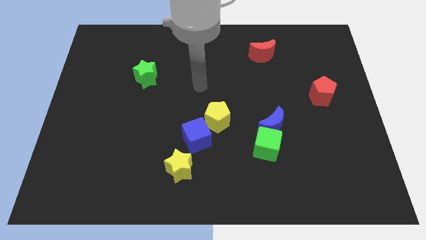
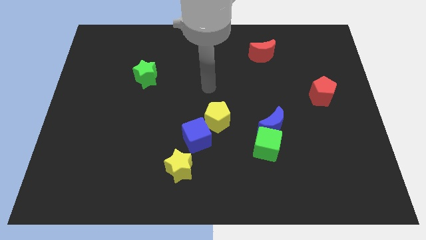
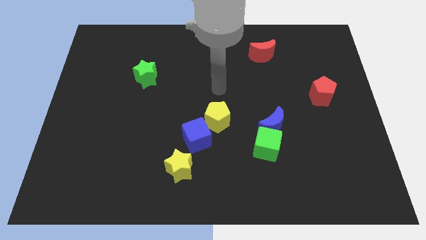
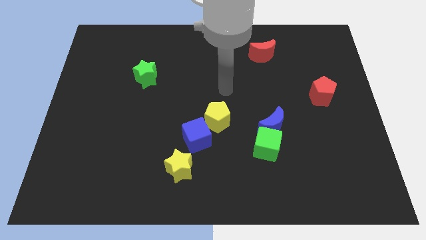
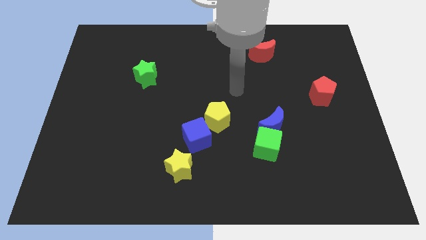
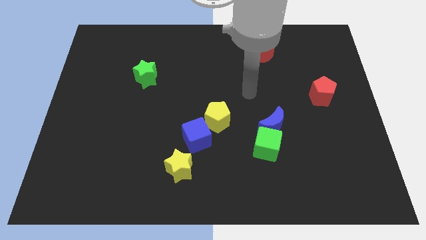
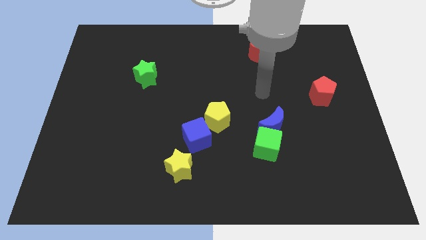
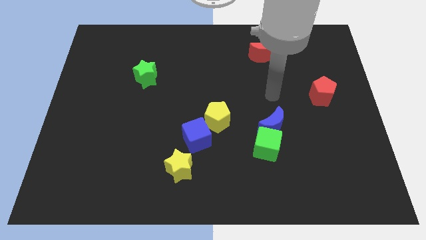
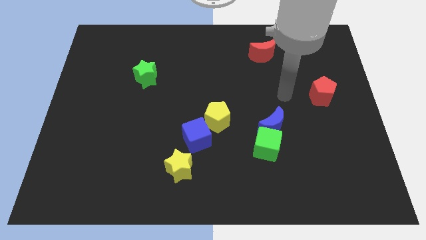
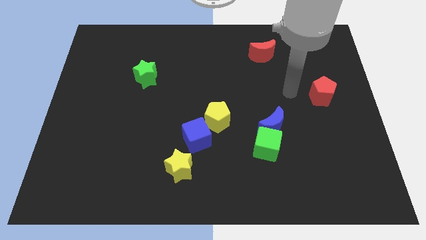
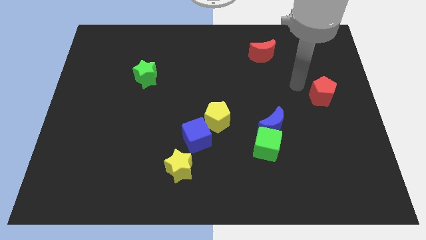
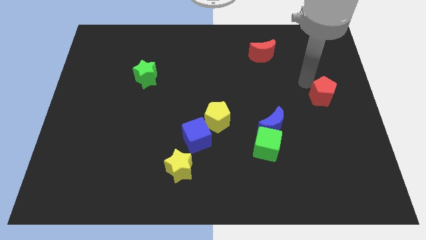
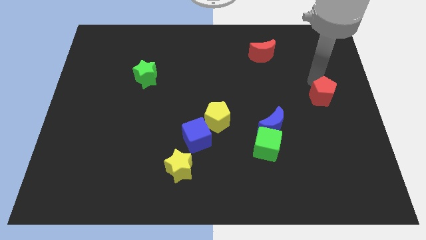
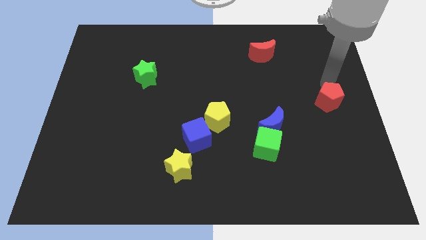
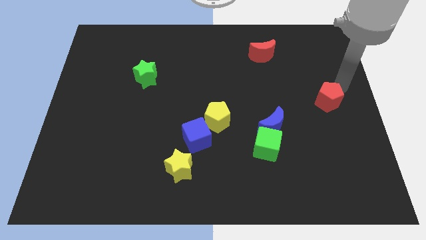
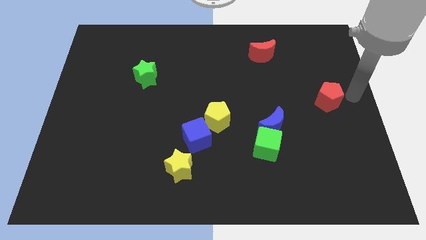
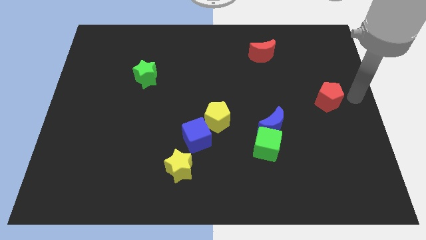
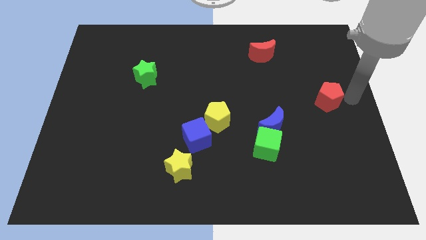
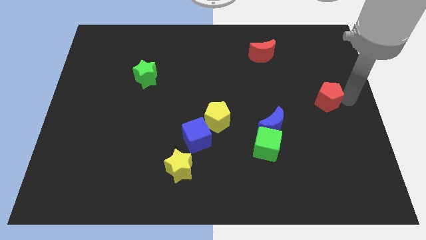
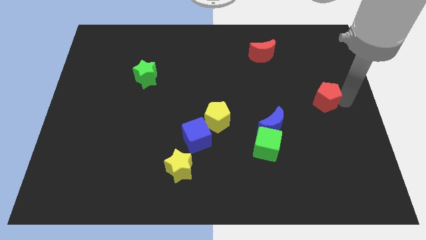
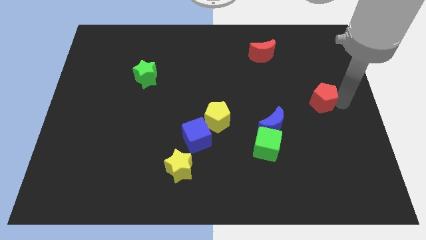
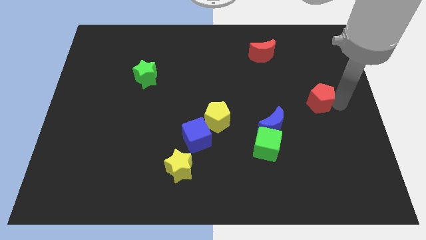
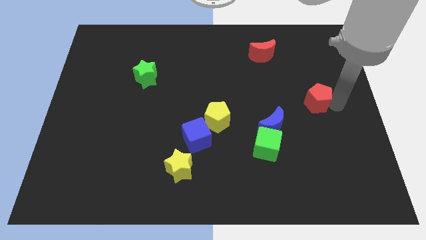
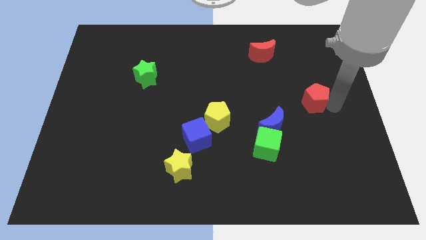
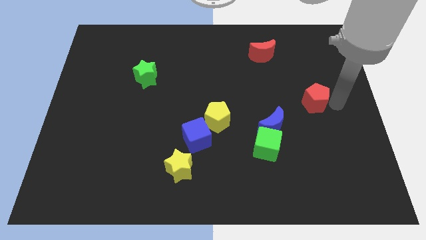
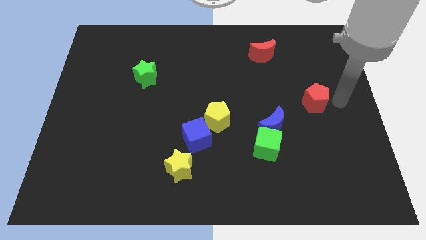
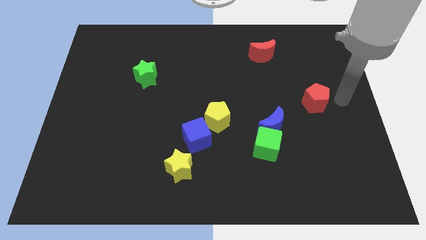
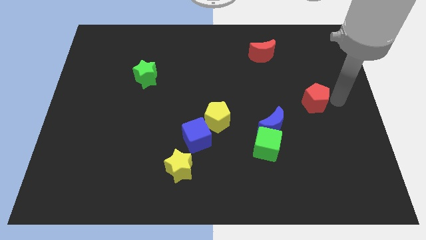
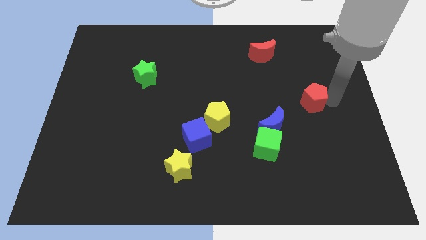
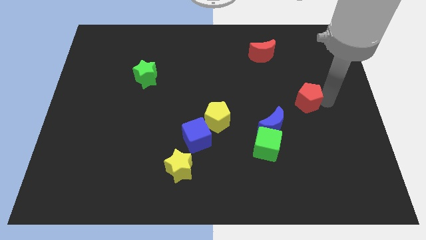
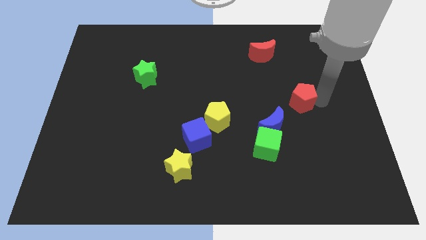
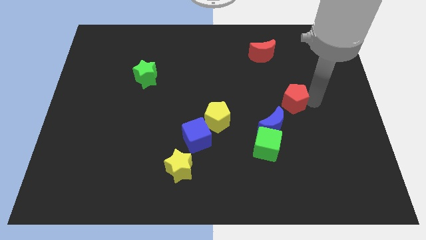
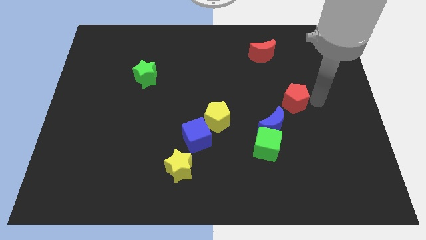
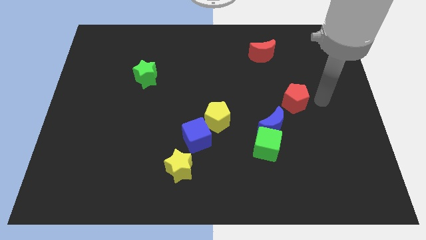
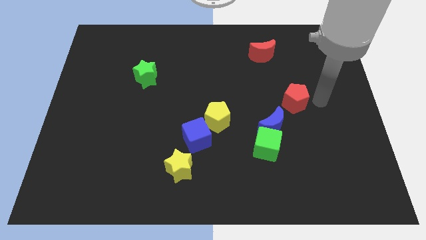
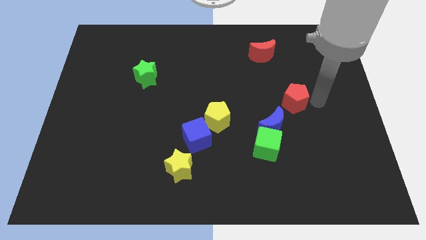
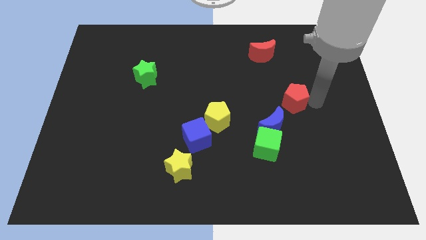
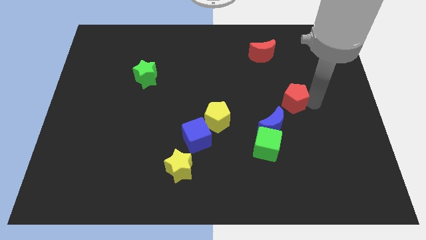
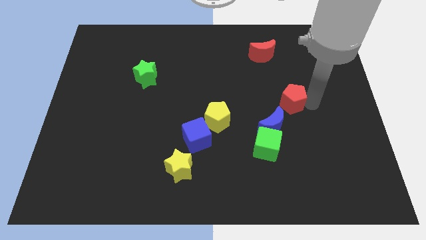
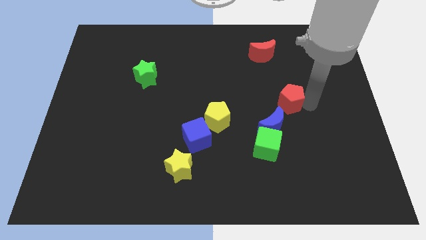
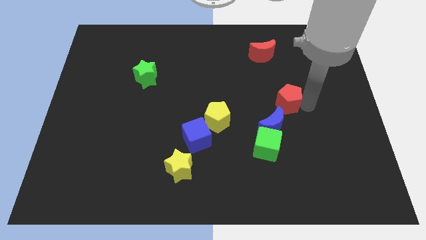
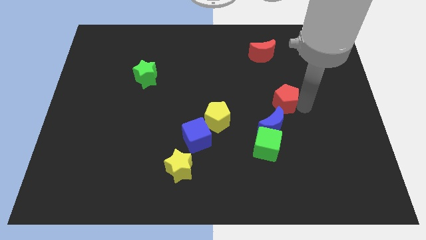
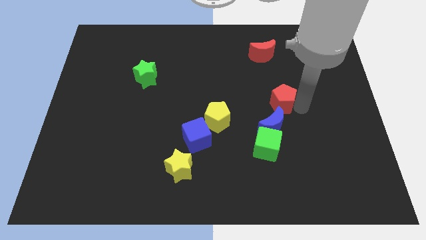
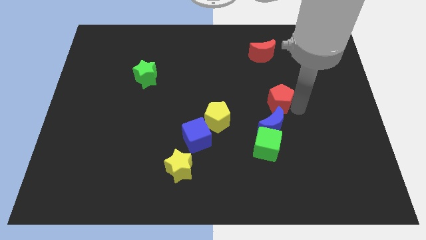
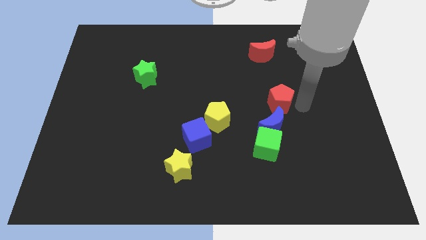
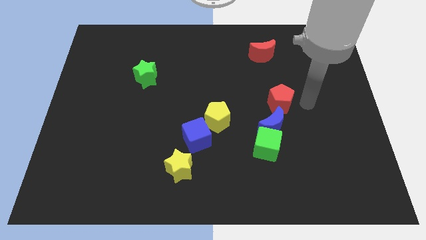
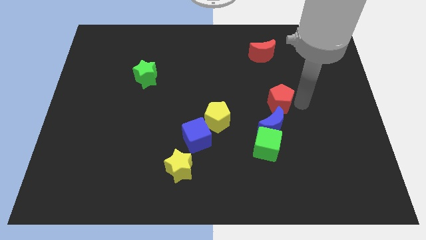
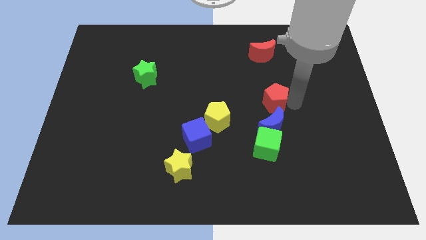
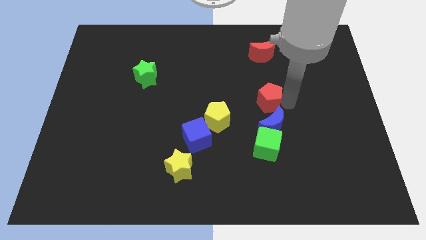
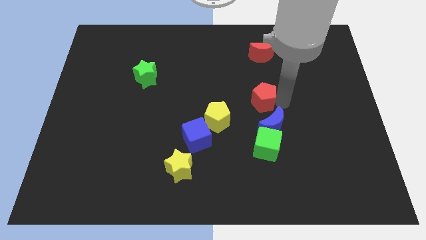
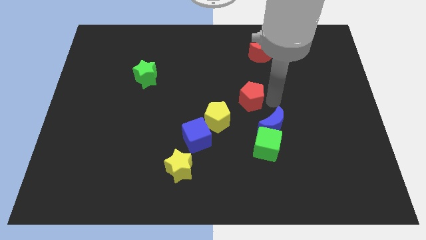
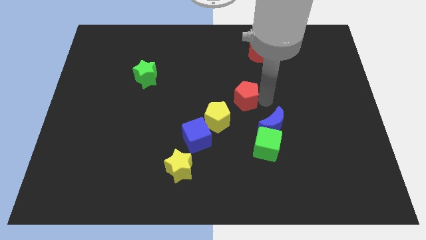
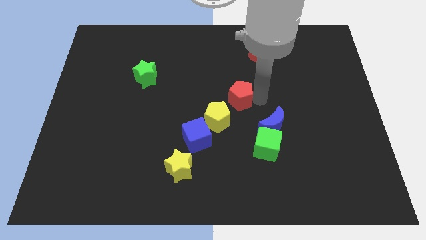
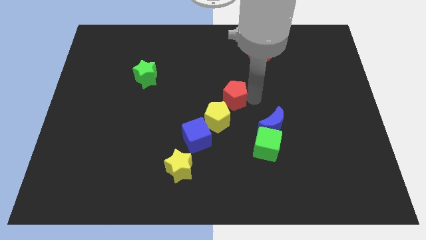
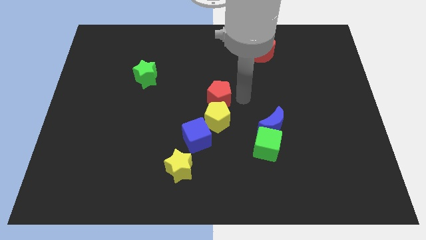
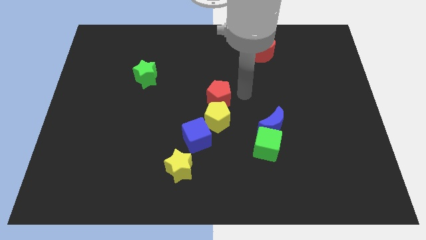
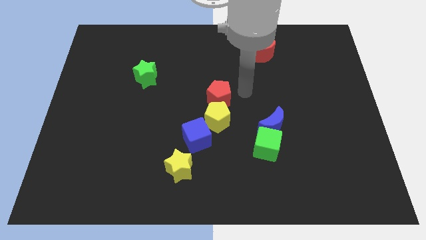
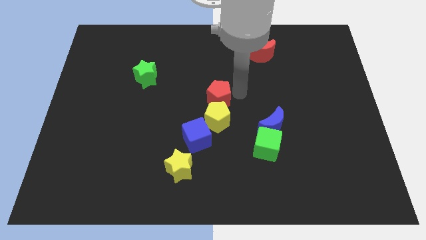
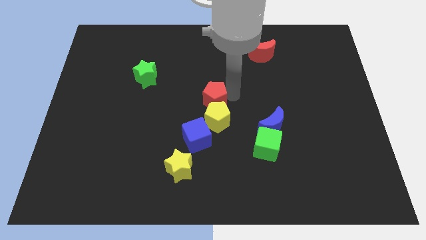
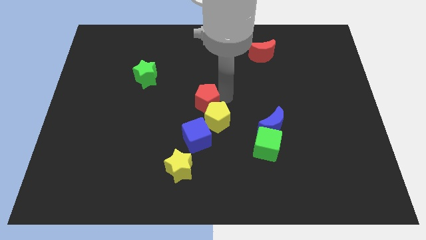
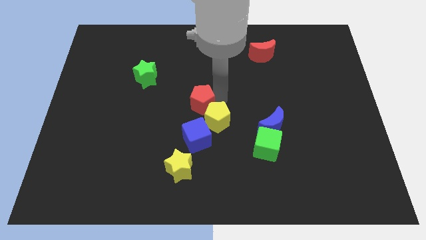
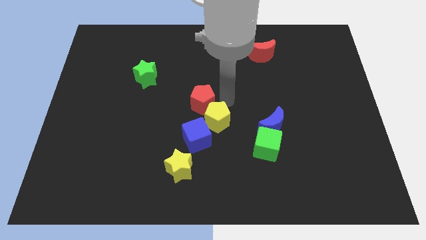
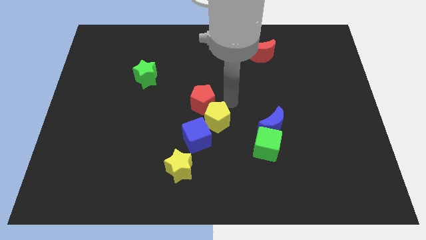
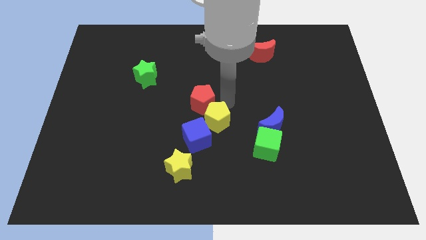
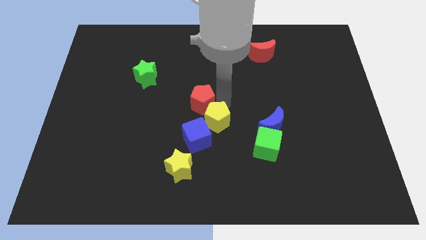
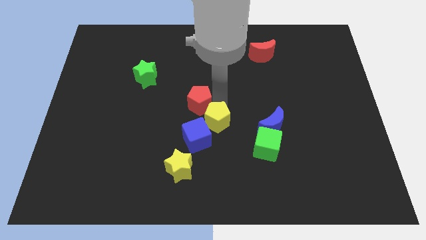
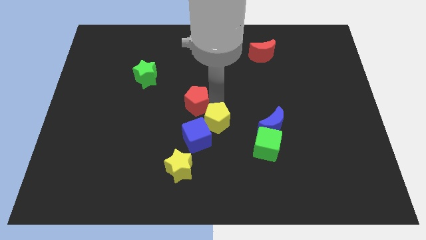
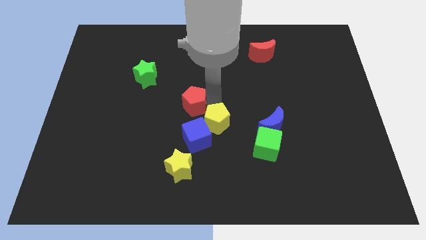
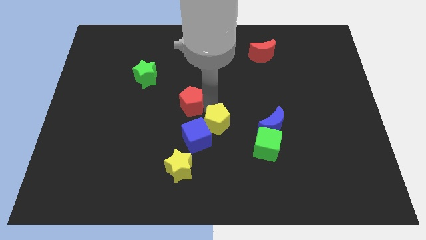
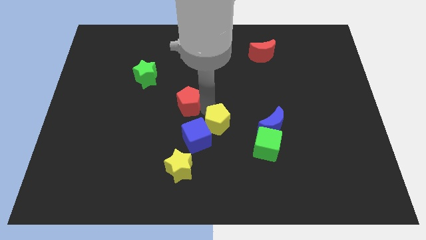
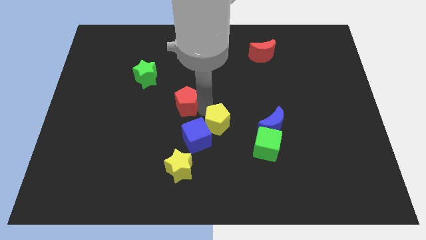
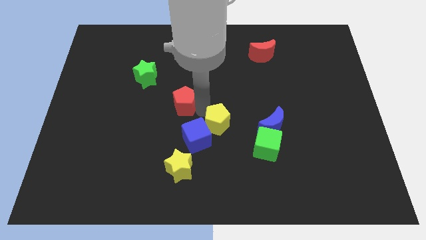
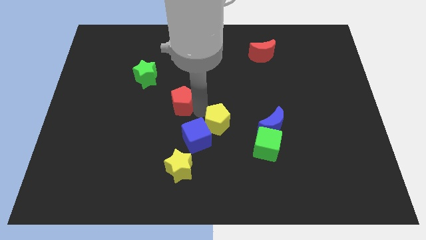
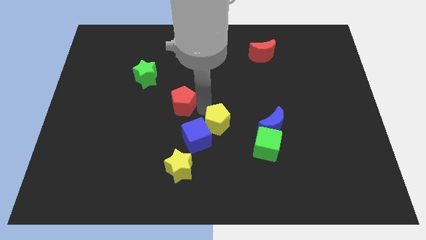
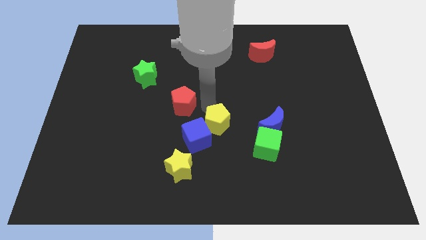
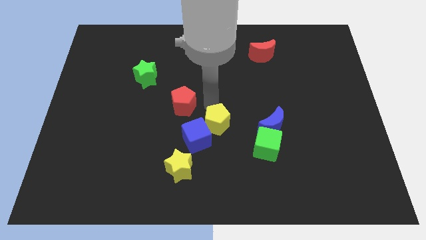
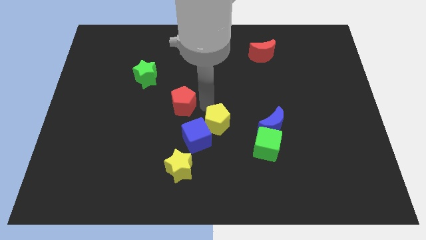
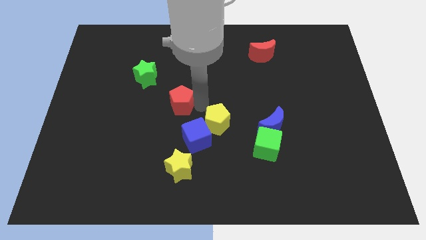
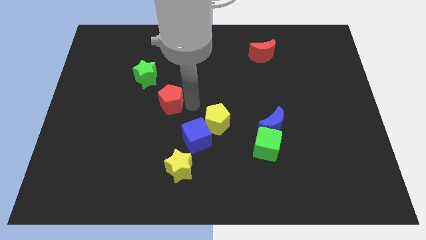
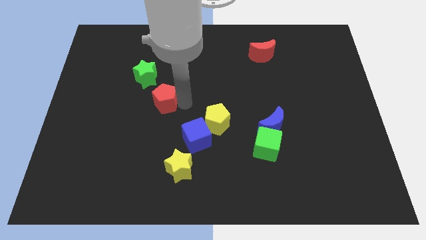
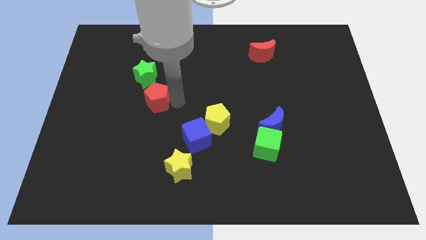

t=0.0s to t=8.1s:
move the red pentagon to the bottom side of the green star

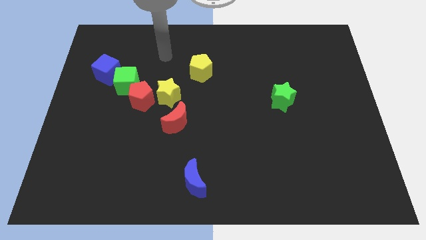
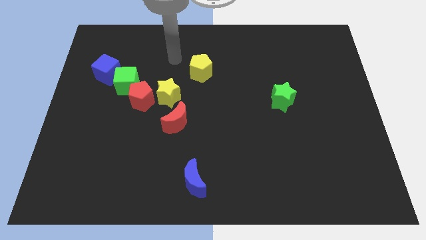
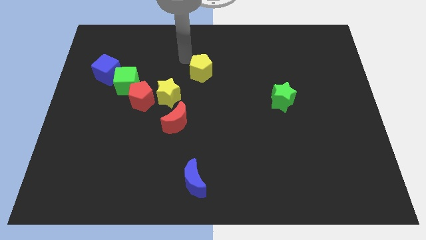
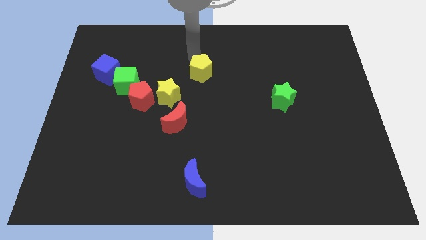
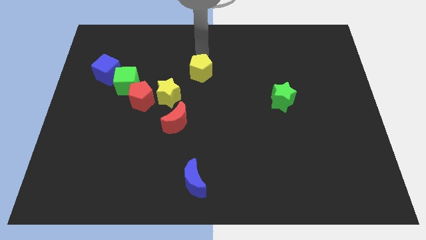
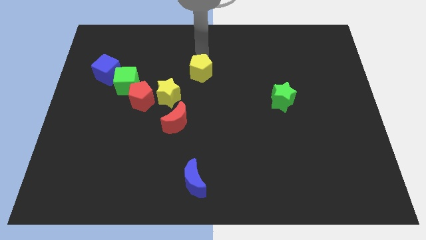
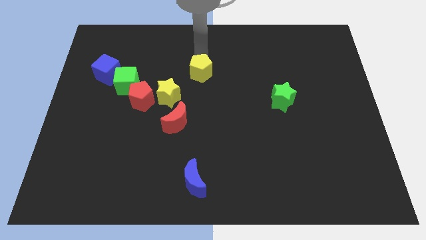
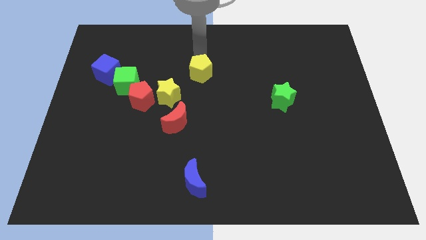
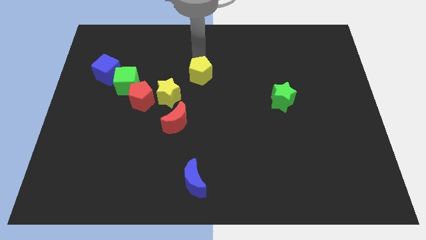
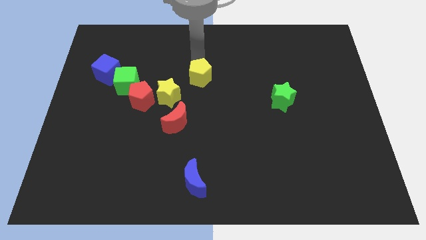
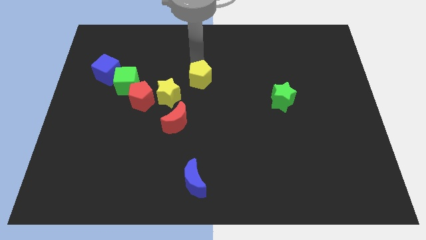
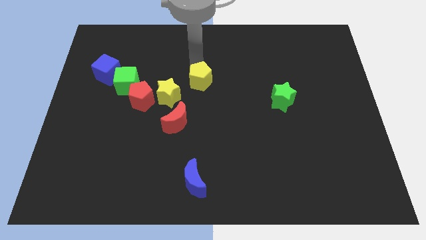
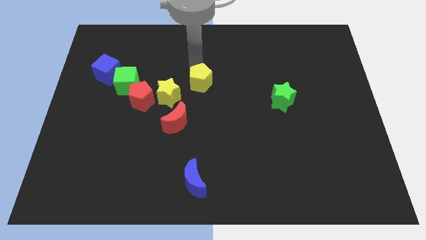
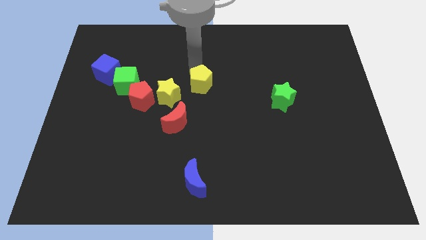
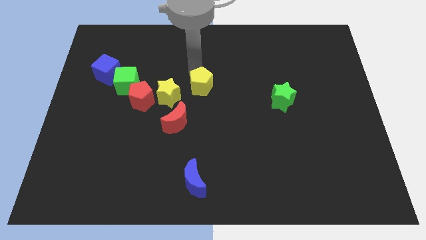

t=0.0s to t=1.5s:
push the yellow pentagon just right of the red pentagon
